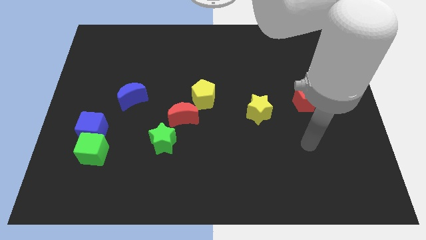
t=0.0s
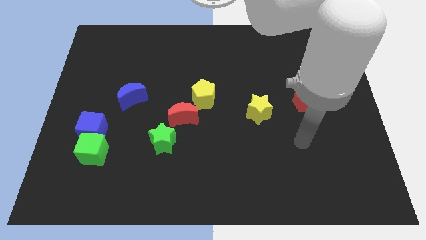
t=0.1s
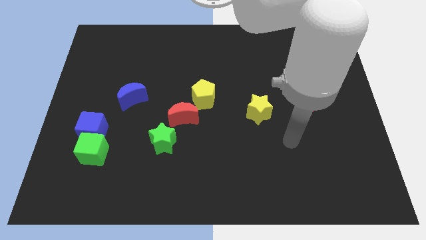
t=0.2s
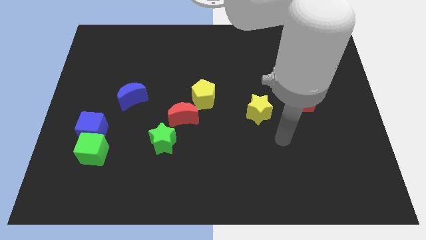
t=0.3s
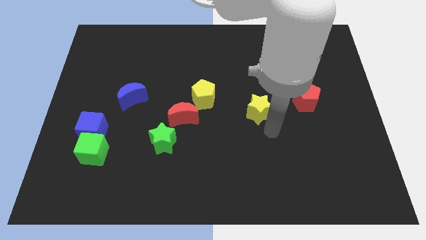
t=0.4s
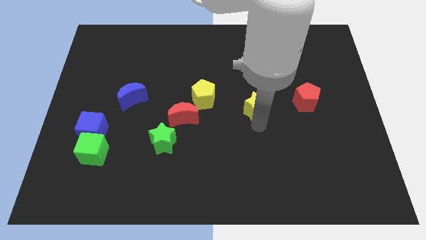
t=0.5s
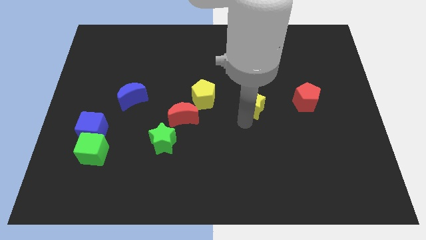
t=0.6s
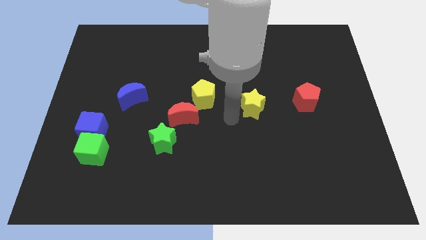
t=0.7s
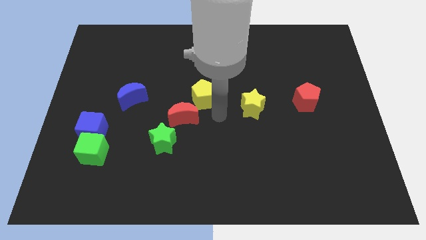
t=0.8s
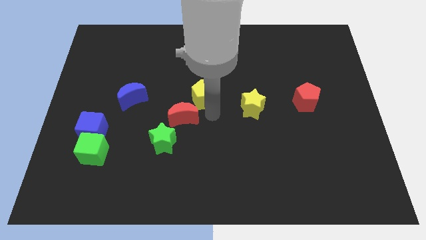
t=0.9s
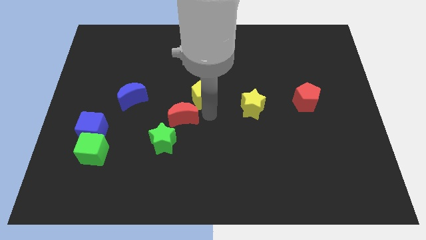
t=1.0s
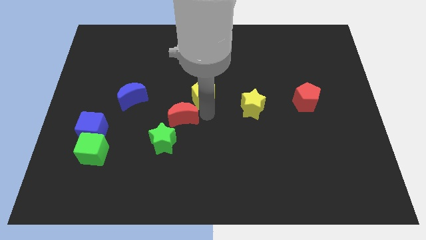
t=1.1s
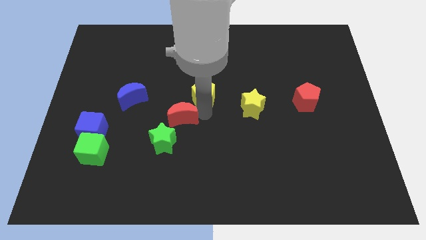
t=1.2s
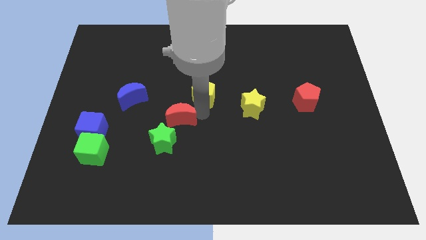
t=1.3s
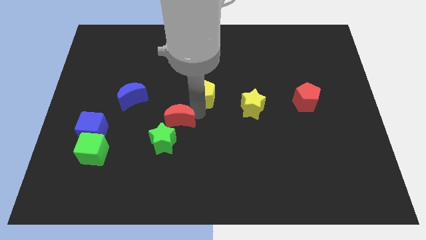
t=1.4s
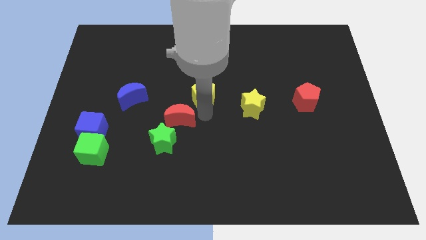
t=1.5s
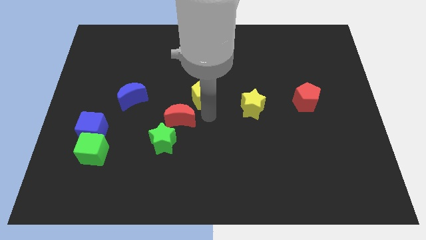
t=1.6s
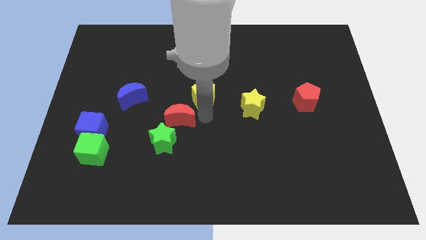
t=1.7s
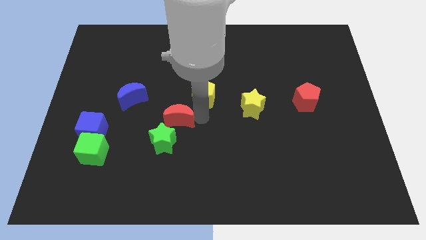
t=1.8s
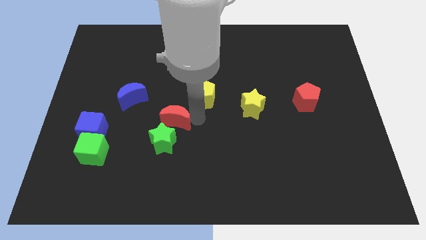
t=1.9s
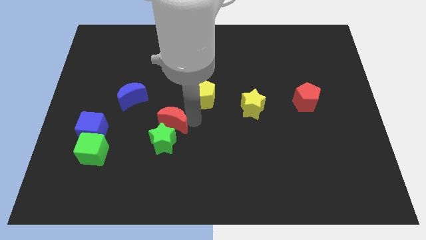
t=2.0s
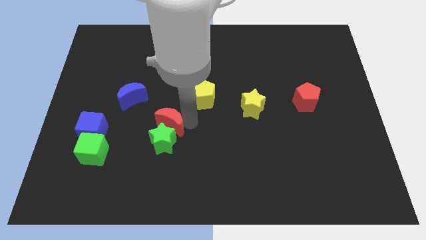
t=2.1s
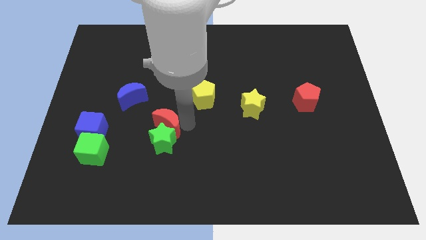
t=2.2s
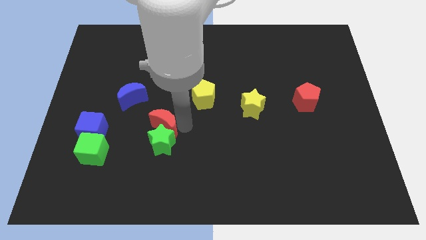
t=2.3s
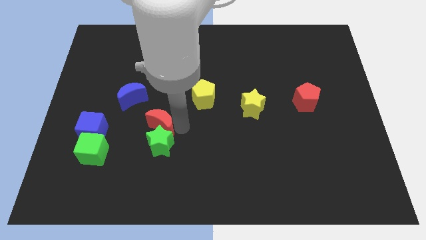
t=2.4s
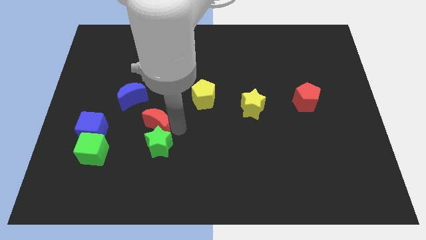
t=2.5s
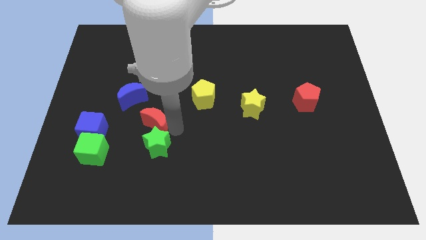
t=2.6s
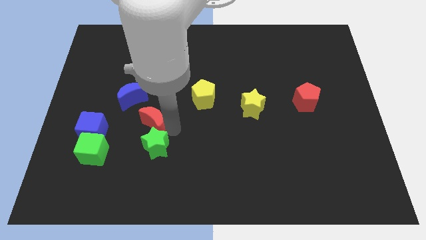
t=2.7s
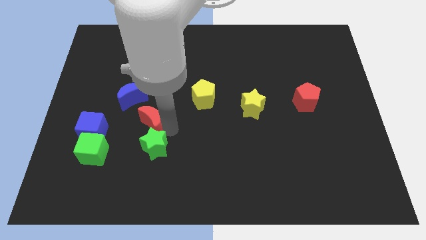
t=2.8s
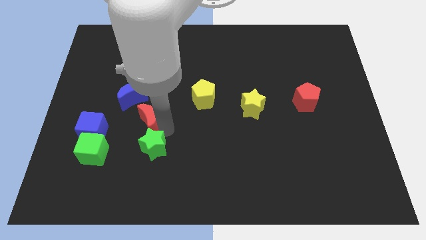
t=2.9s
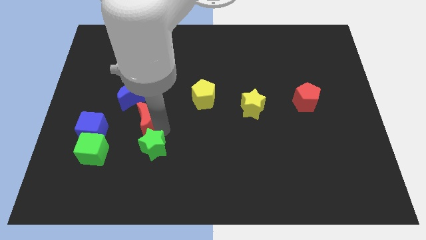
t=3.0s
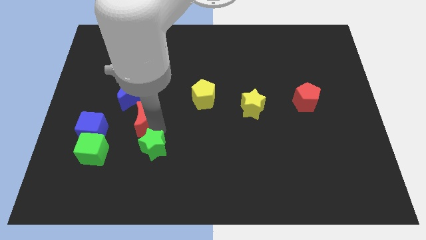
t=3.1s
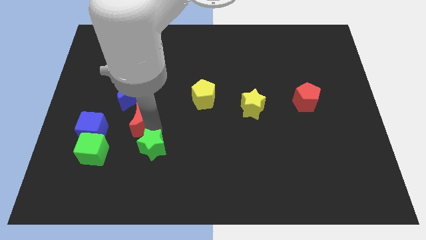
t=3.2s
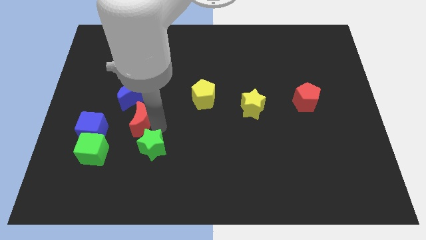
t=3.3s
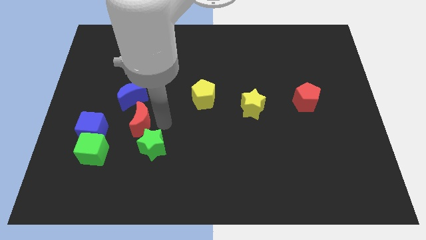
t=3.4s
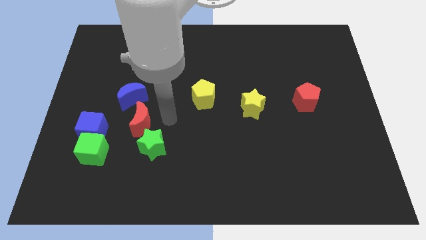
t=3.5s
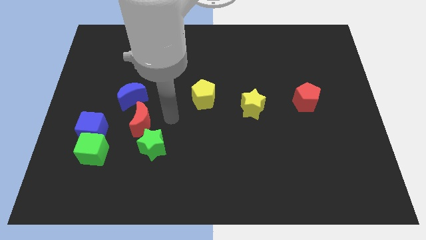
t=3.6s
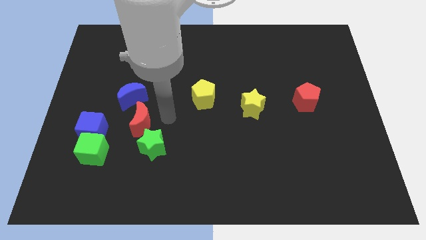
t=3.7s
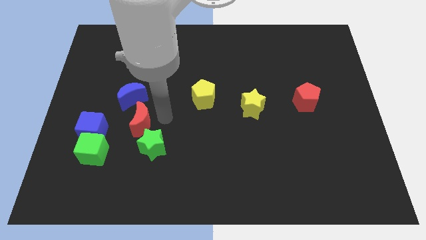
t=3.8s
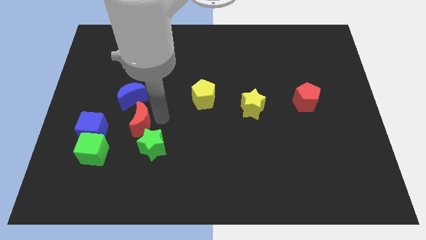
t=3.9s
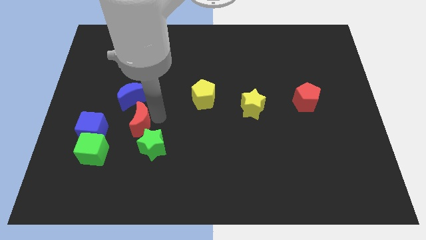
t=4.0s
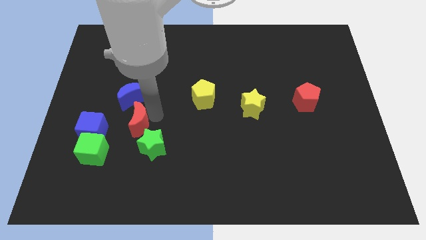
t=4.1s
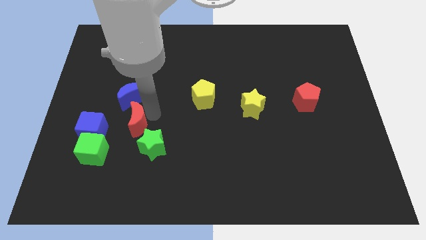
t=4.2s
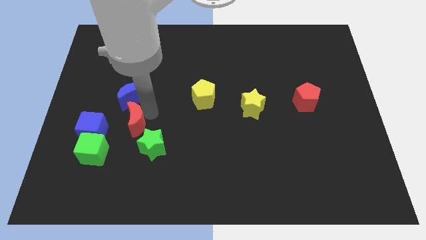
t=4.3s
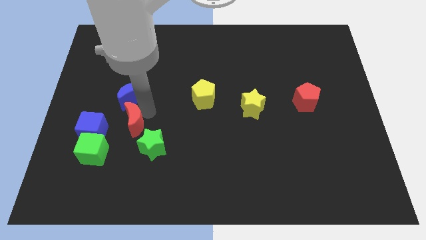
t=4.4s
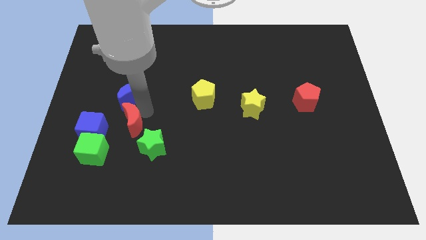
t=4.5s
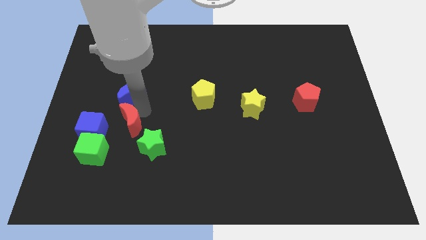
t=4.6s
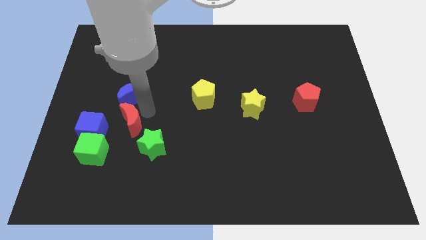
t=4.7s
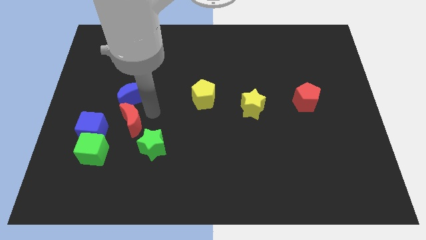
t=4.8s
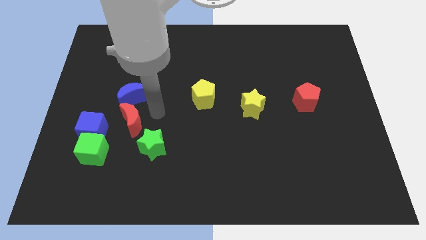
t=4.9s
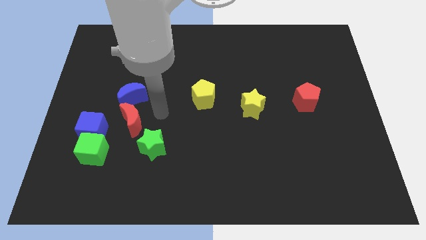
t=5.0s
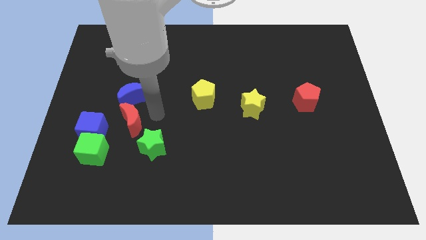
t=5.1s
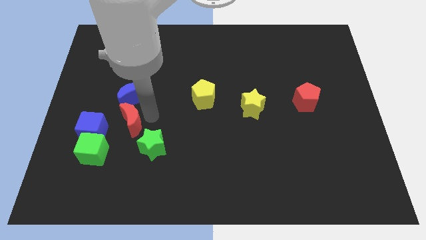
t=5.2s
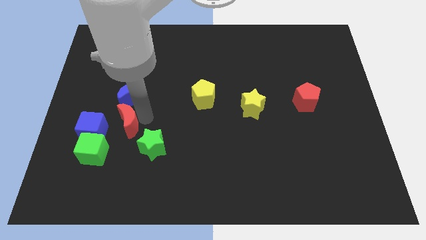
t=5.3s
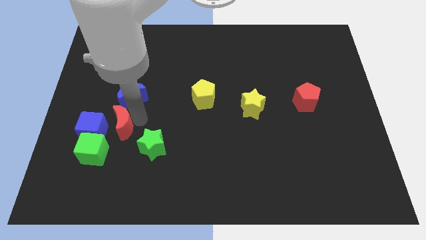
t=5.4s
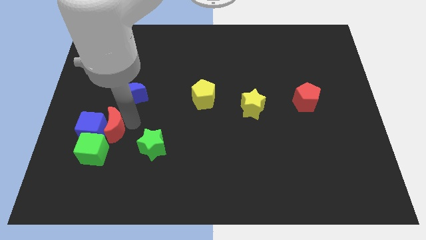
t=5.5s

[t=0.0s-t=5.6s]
slide the red moon close to the blue cube

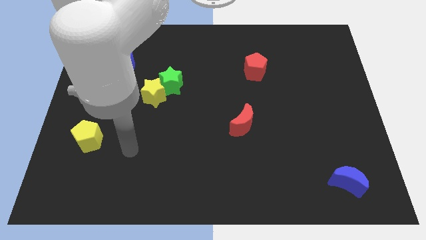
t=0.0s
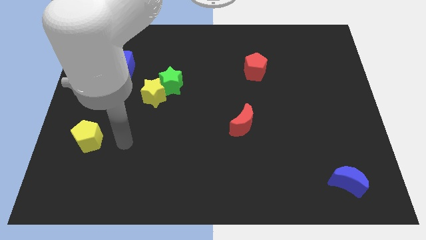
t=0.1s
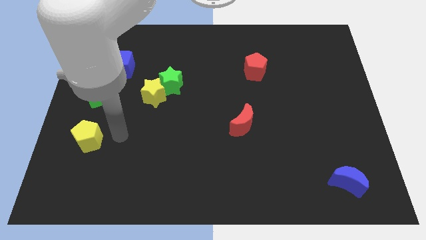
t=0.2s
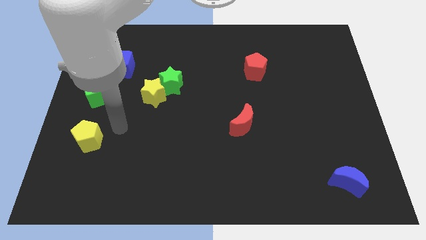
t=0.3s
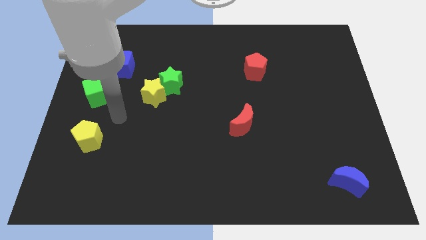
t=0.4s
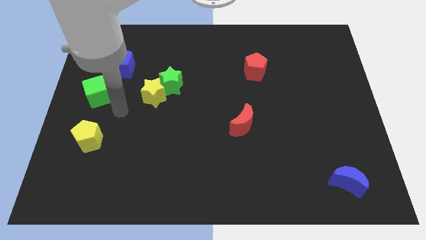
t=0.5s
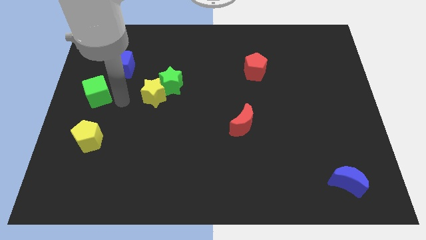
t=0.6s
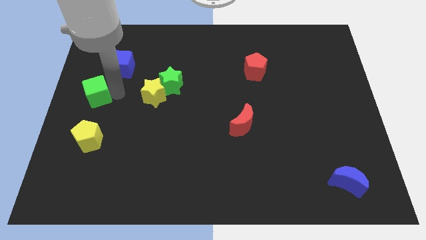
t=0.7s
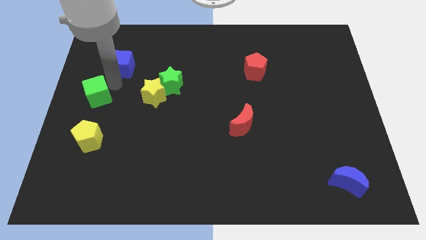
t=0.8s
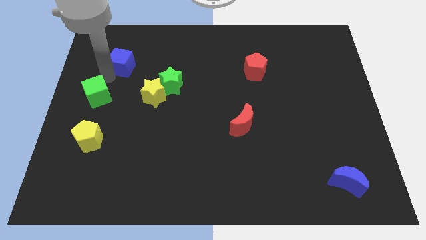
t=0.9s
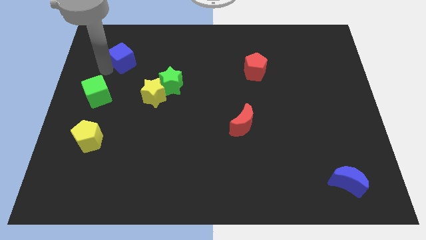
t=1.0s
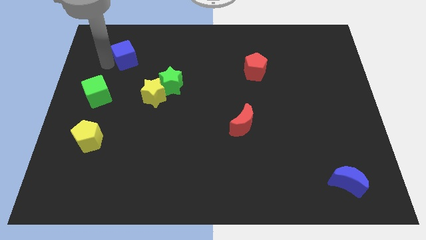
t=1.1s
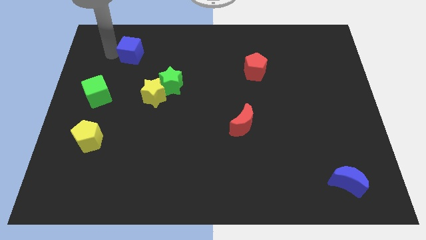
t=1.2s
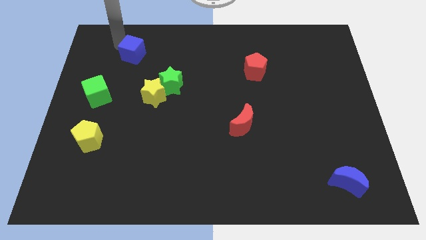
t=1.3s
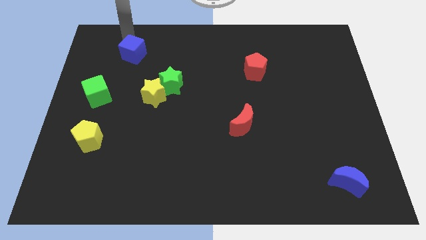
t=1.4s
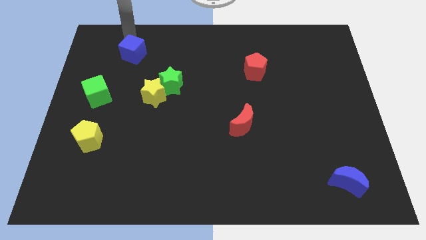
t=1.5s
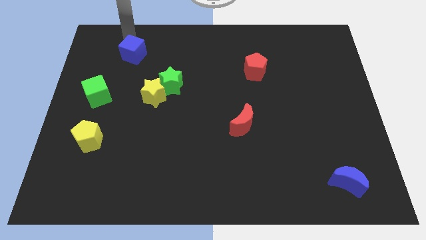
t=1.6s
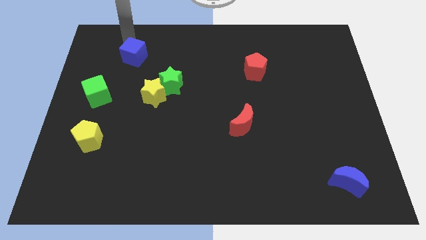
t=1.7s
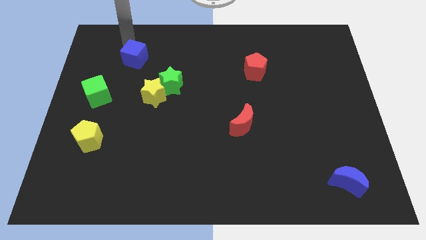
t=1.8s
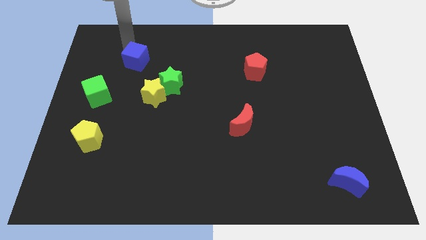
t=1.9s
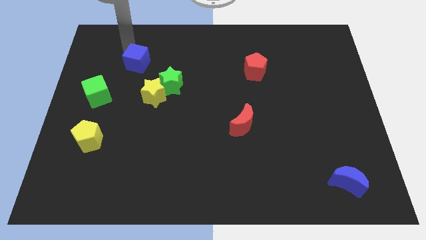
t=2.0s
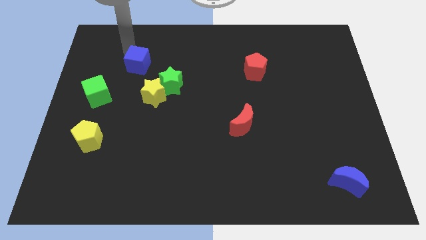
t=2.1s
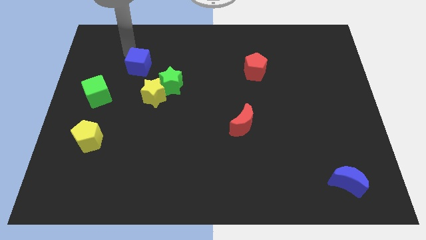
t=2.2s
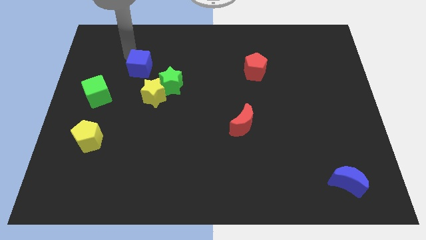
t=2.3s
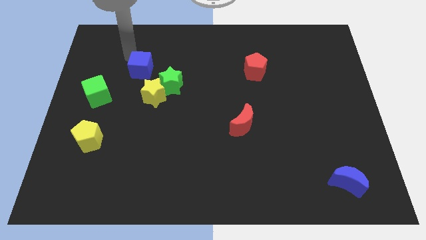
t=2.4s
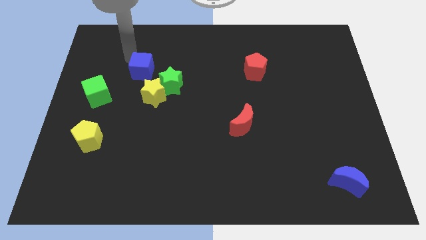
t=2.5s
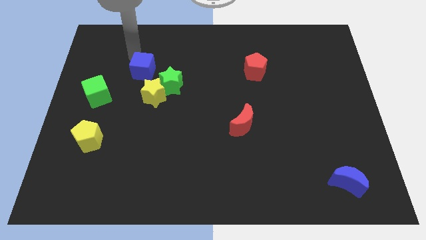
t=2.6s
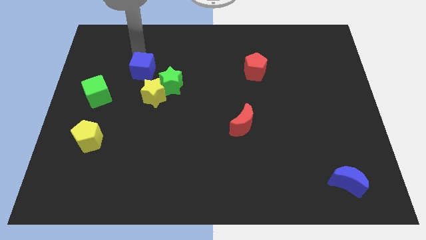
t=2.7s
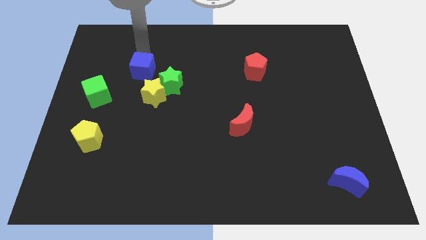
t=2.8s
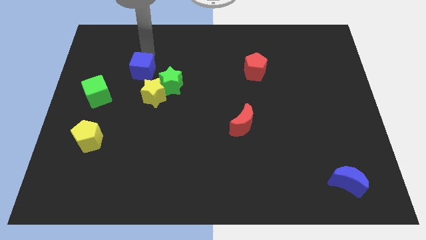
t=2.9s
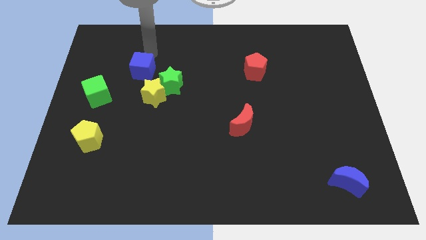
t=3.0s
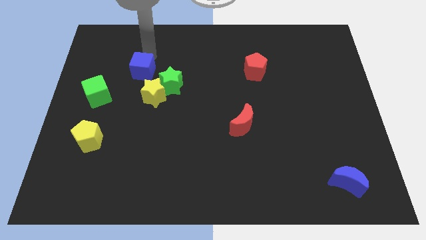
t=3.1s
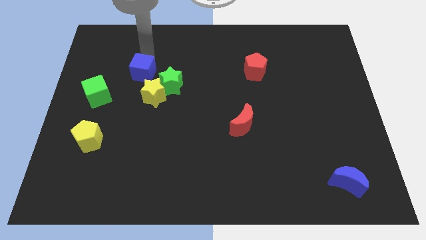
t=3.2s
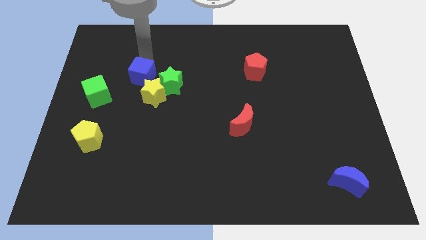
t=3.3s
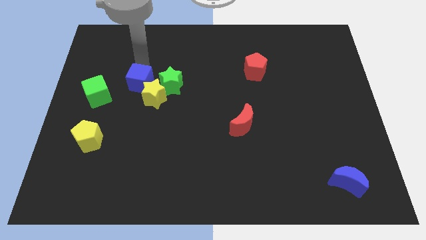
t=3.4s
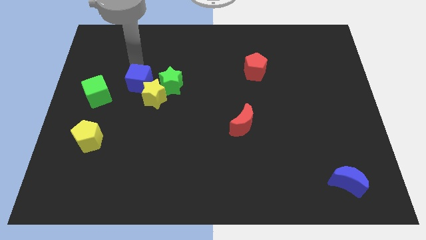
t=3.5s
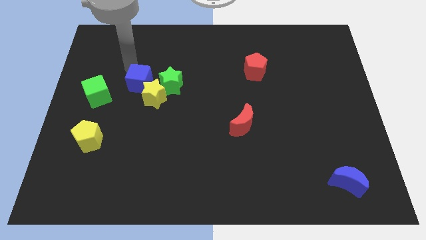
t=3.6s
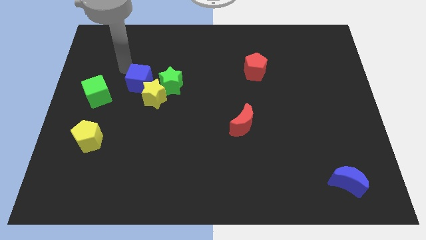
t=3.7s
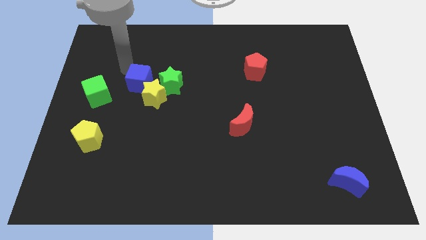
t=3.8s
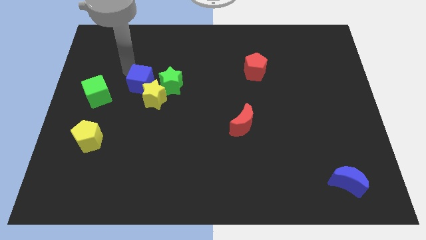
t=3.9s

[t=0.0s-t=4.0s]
slide the blue cube close to the yellow star
